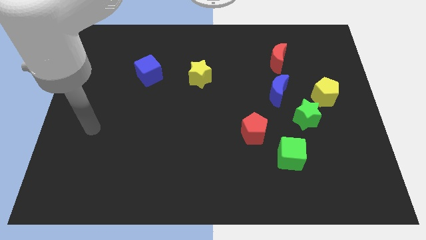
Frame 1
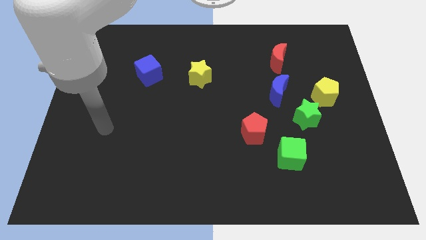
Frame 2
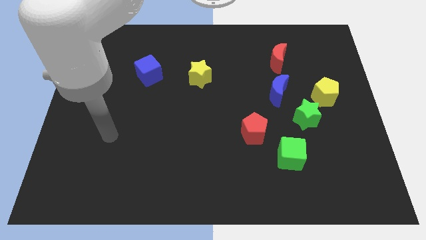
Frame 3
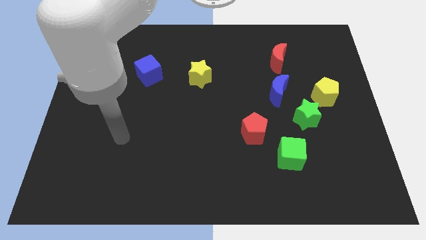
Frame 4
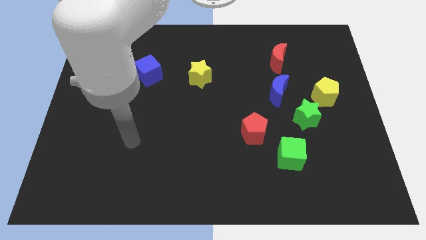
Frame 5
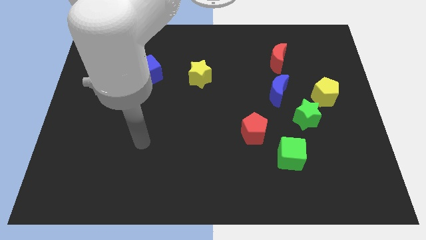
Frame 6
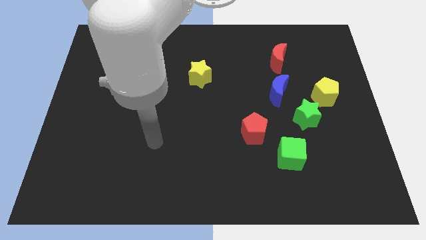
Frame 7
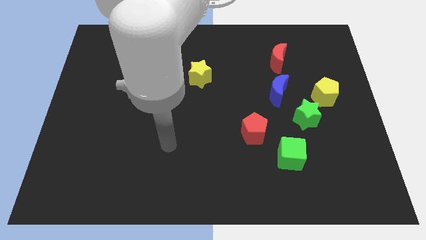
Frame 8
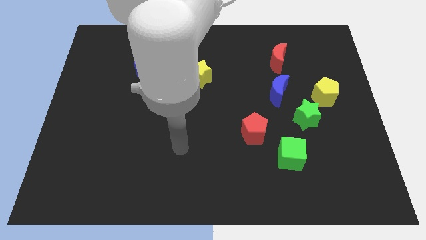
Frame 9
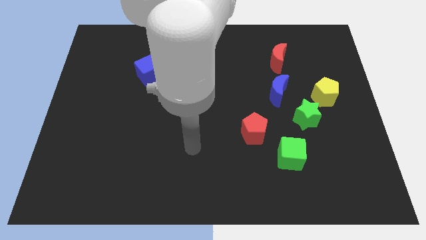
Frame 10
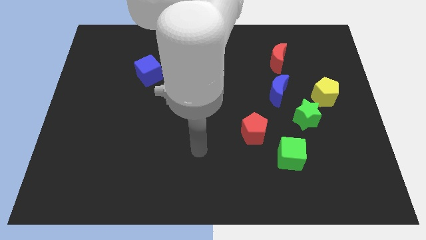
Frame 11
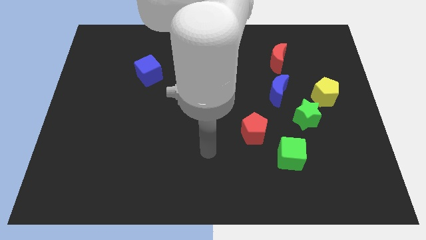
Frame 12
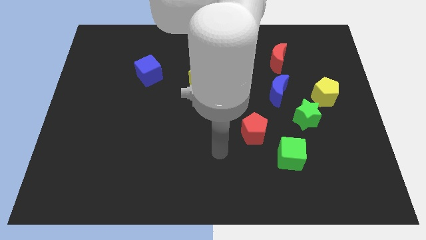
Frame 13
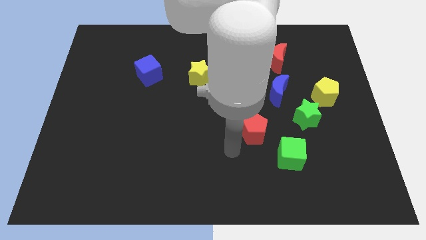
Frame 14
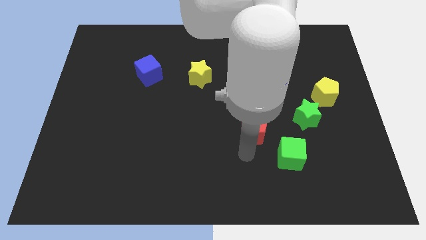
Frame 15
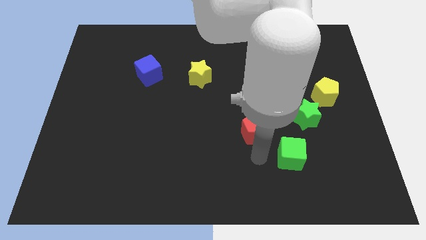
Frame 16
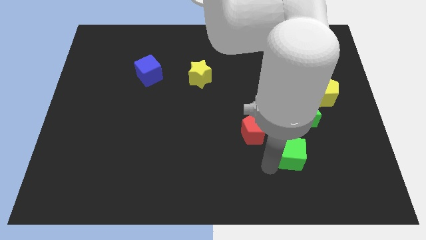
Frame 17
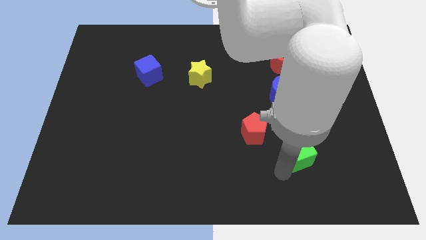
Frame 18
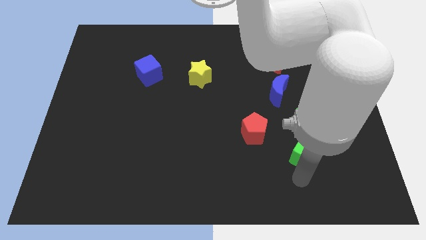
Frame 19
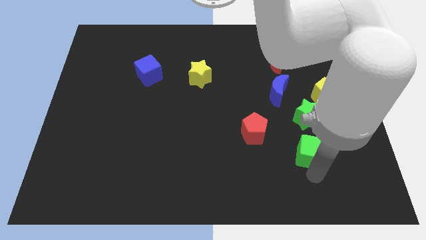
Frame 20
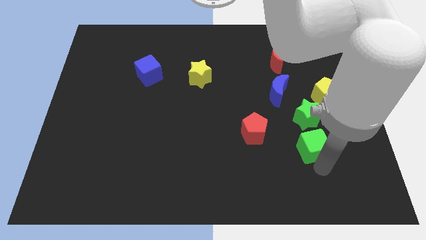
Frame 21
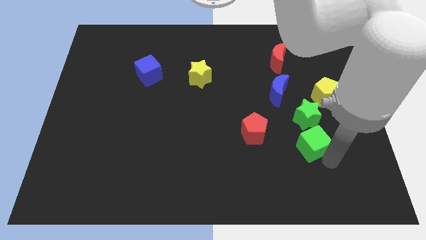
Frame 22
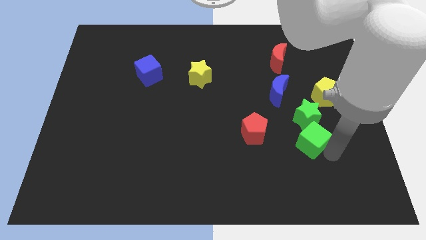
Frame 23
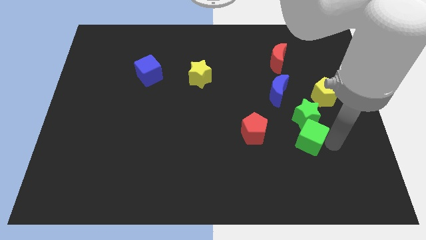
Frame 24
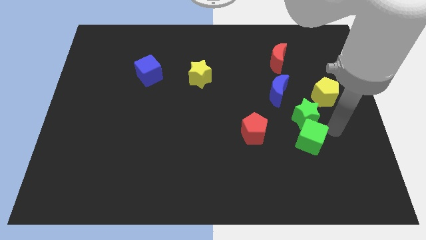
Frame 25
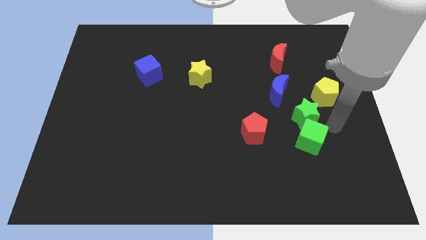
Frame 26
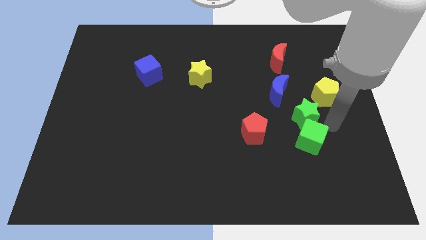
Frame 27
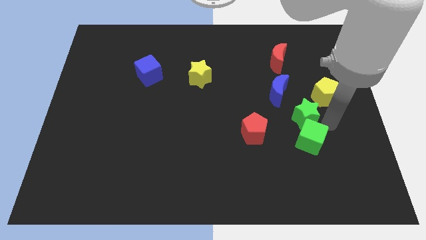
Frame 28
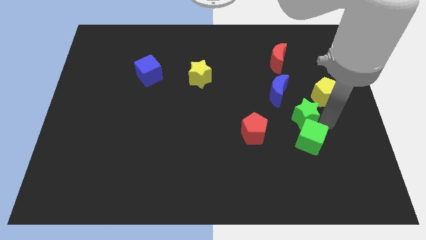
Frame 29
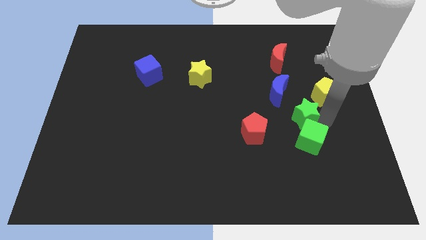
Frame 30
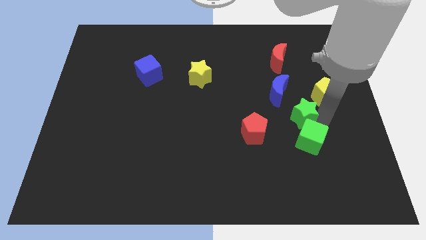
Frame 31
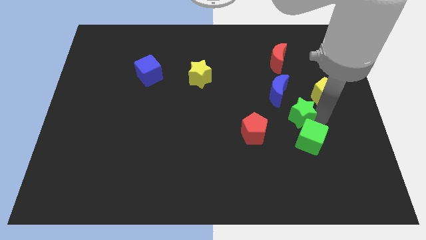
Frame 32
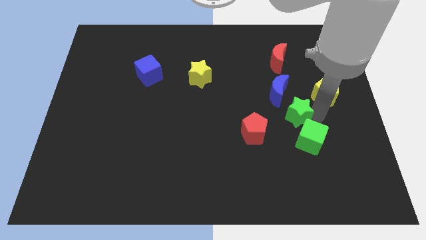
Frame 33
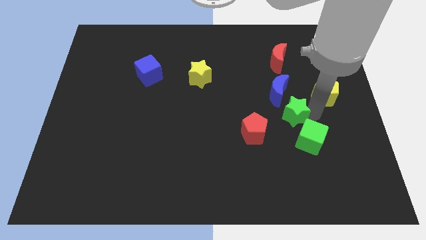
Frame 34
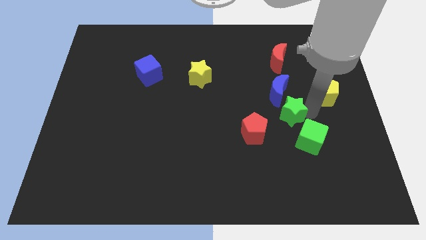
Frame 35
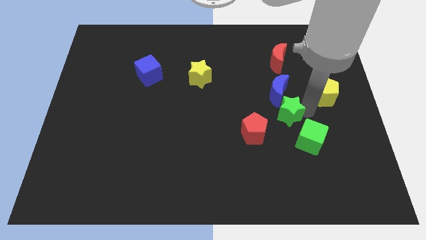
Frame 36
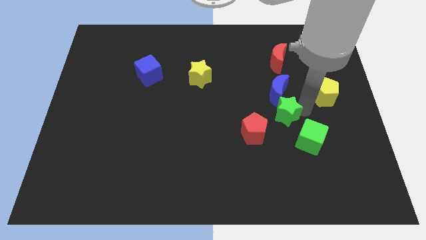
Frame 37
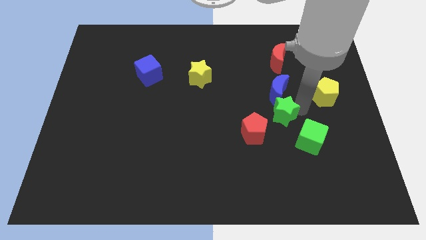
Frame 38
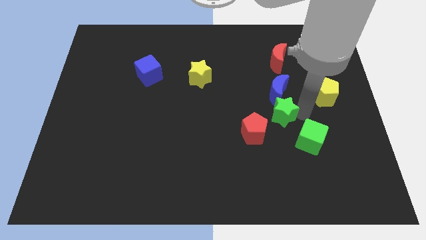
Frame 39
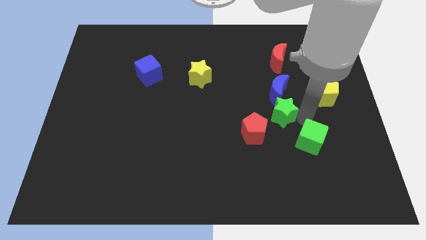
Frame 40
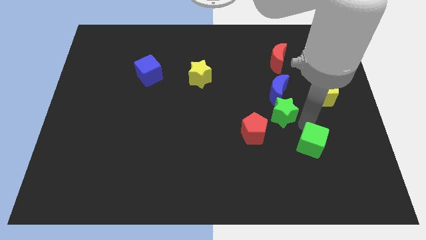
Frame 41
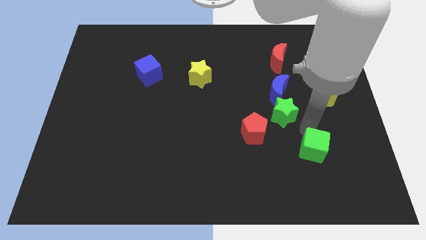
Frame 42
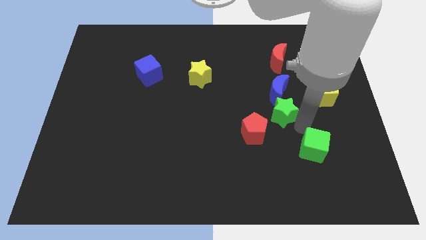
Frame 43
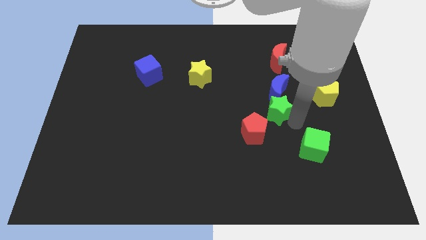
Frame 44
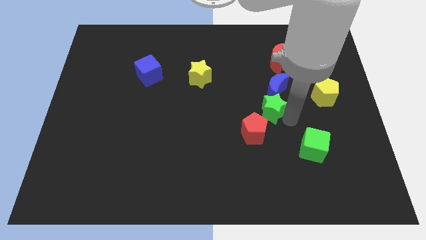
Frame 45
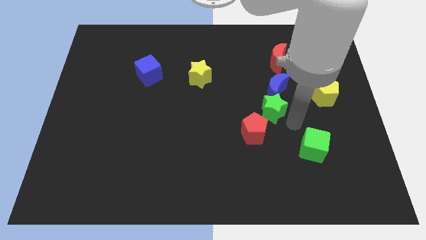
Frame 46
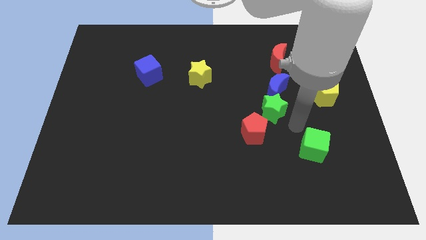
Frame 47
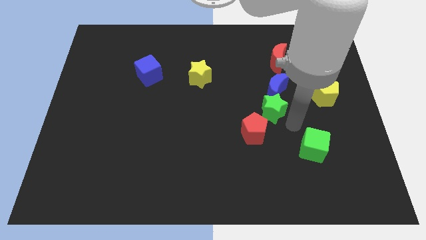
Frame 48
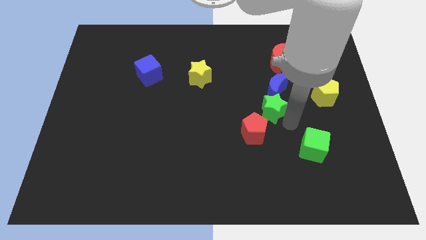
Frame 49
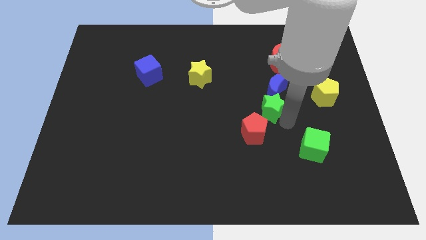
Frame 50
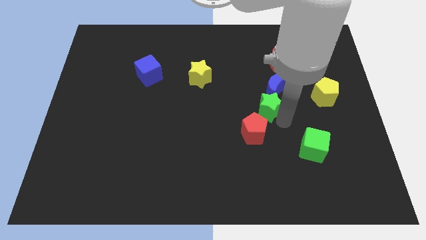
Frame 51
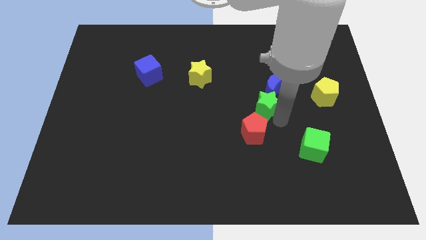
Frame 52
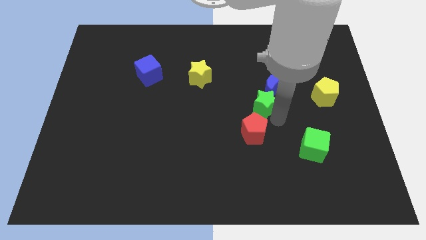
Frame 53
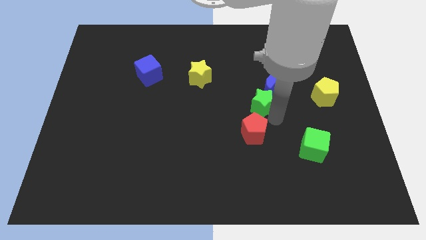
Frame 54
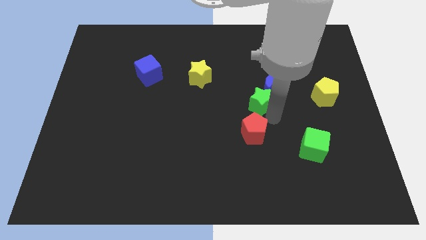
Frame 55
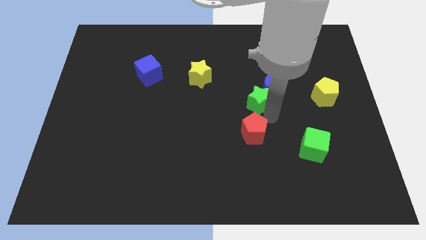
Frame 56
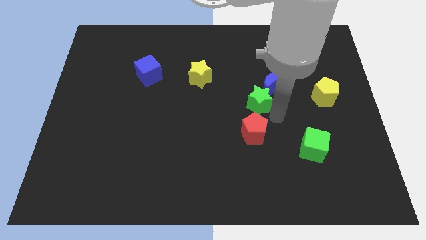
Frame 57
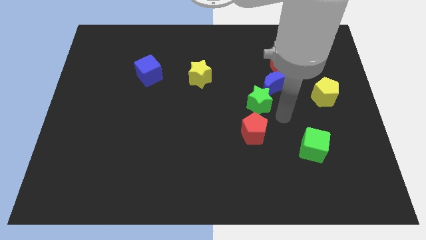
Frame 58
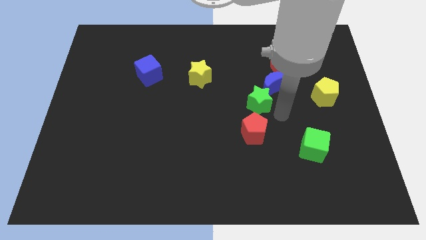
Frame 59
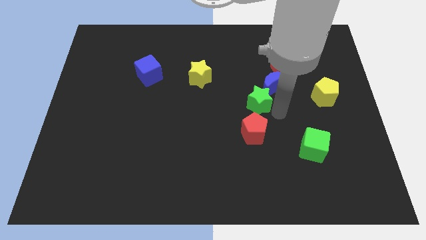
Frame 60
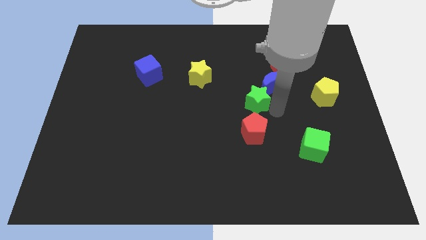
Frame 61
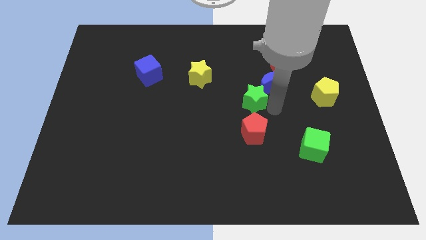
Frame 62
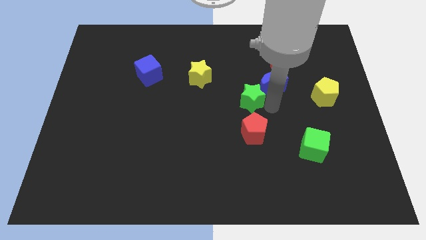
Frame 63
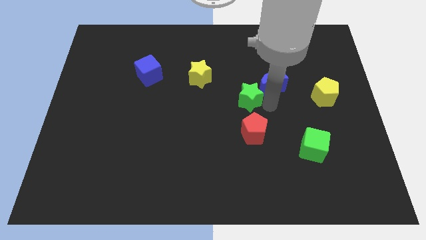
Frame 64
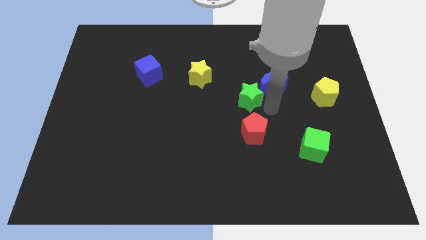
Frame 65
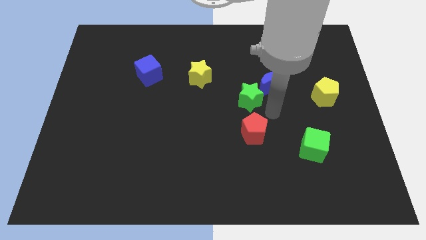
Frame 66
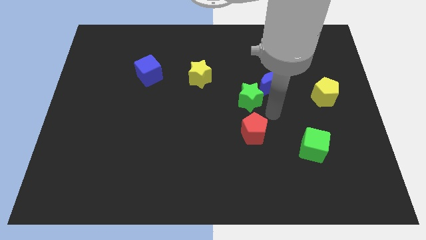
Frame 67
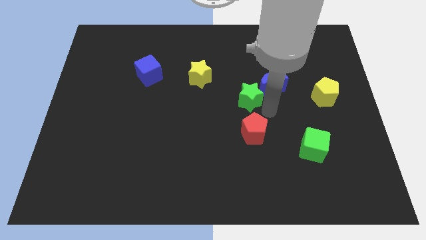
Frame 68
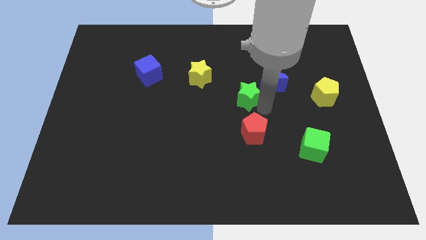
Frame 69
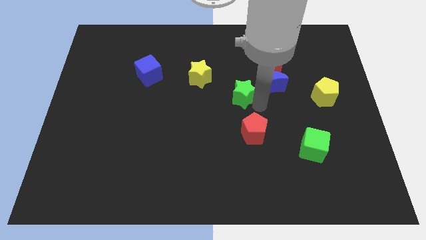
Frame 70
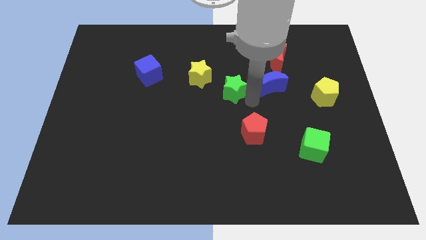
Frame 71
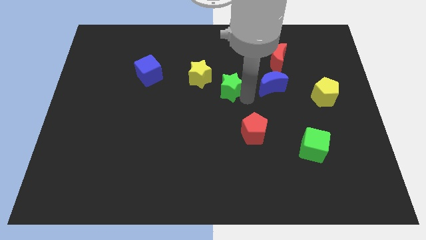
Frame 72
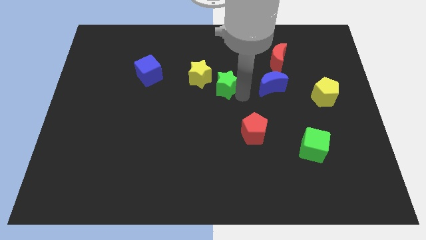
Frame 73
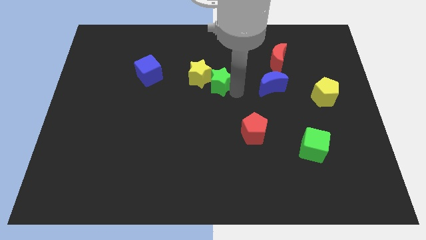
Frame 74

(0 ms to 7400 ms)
move the green star close to the yellow star

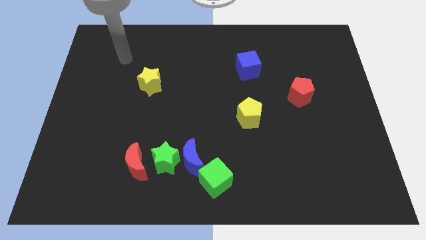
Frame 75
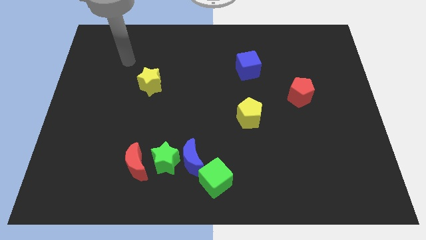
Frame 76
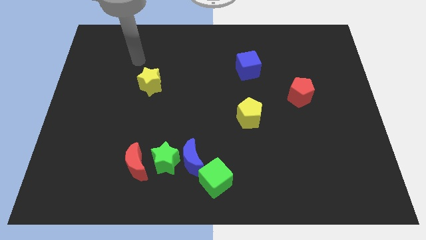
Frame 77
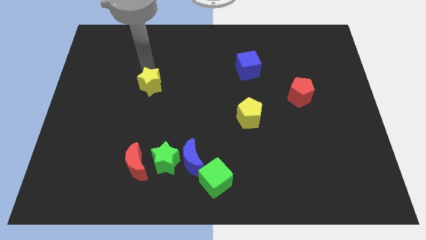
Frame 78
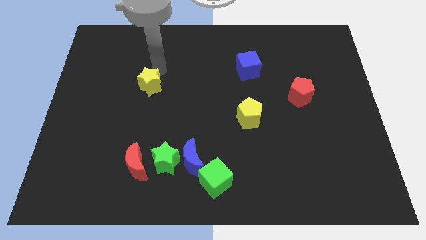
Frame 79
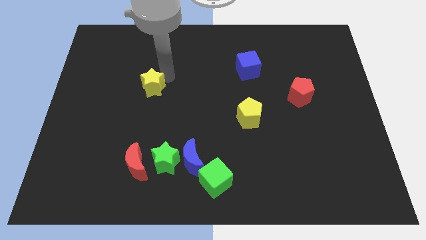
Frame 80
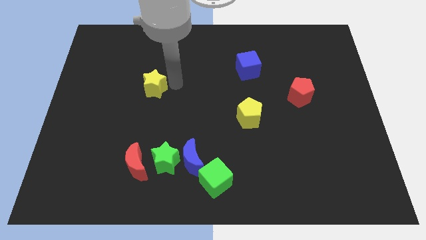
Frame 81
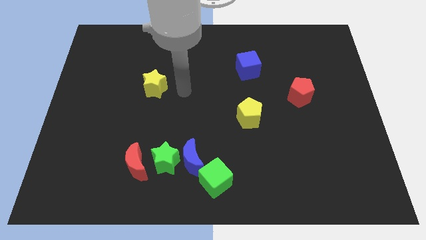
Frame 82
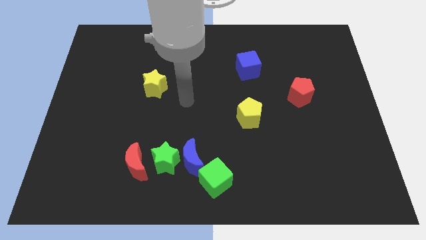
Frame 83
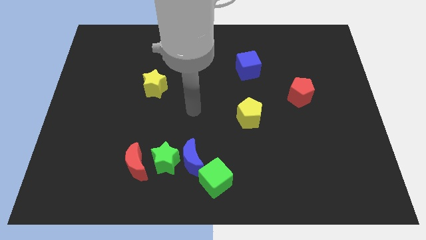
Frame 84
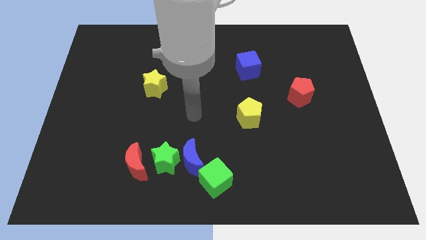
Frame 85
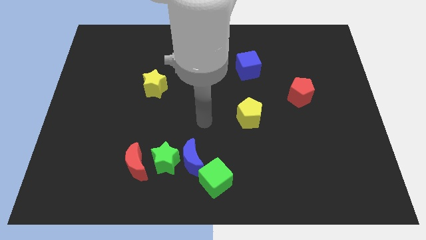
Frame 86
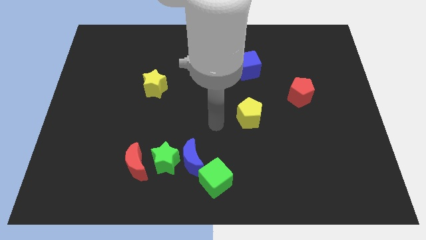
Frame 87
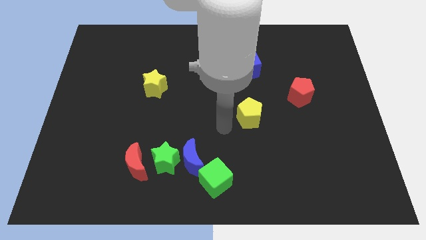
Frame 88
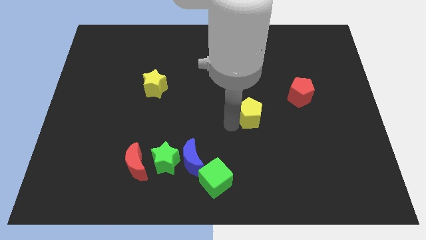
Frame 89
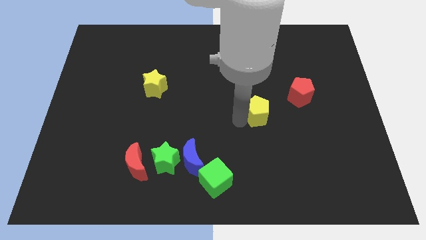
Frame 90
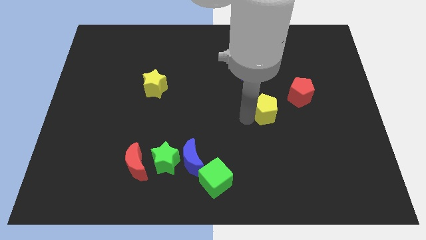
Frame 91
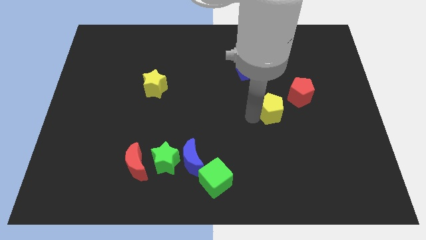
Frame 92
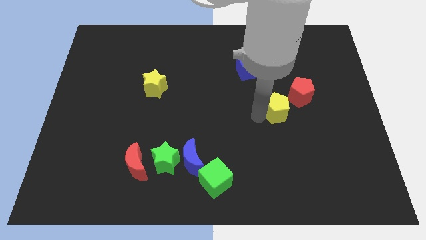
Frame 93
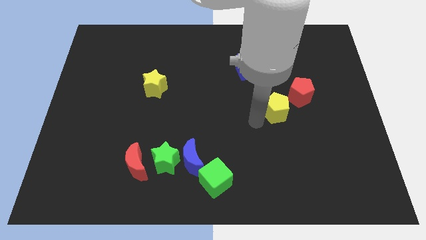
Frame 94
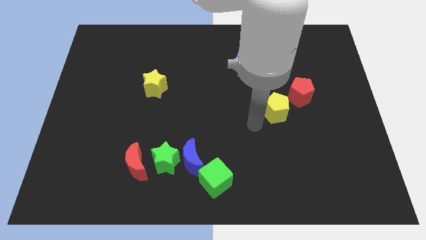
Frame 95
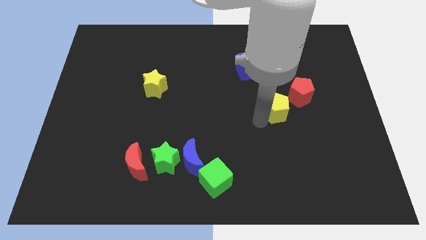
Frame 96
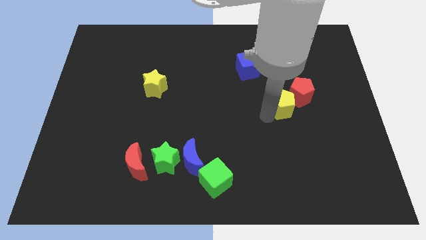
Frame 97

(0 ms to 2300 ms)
push the yellow pentagon close to the red pentagon
